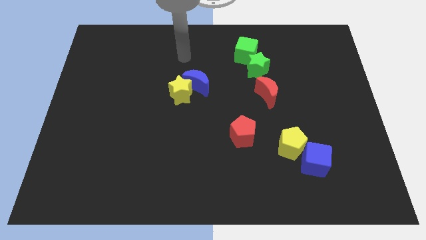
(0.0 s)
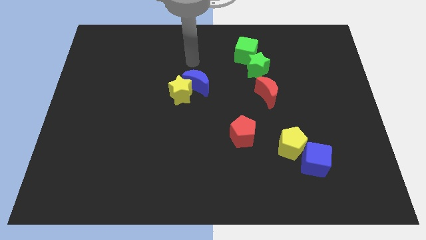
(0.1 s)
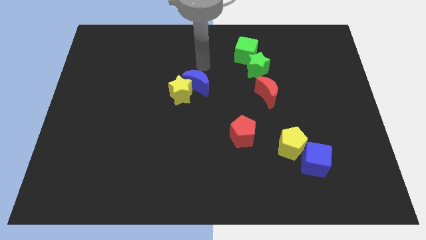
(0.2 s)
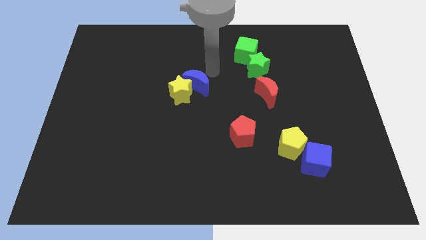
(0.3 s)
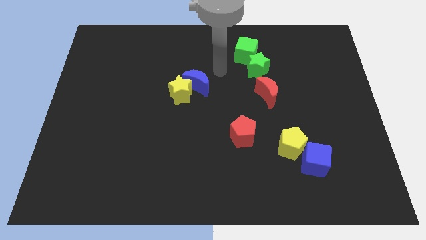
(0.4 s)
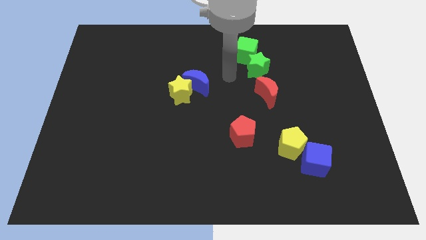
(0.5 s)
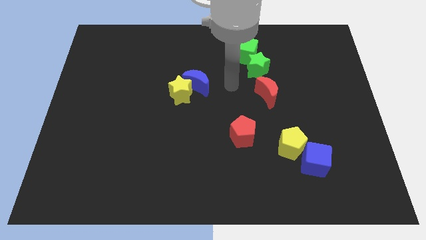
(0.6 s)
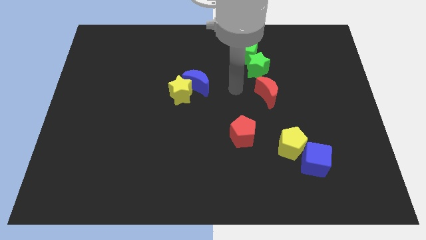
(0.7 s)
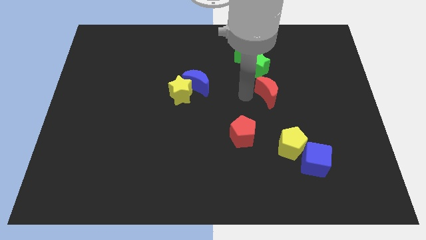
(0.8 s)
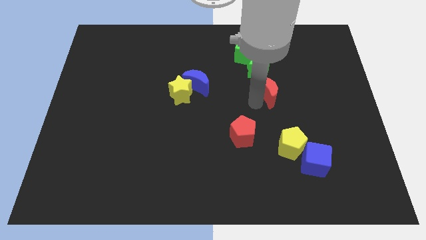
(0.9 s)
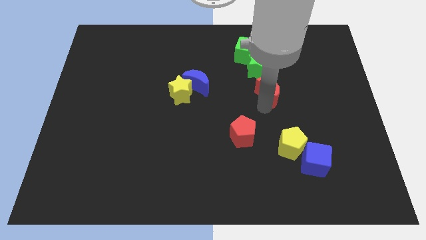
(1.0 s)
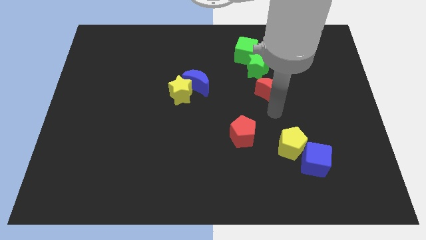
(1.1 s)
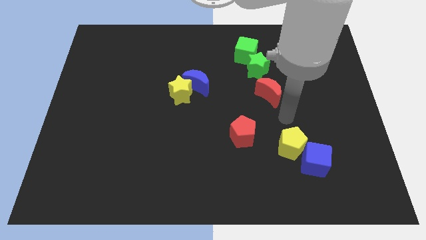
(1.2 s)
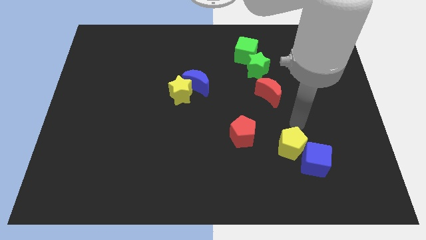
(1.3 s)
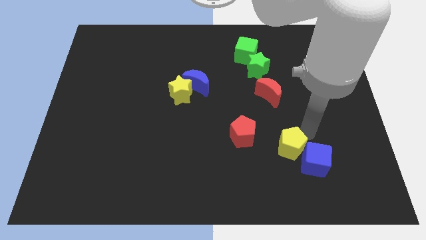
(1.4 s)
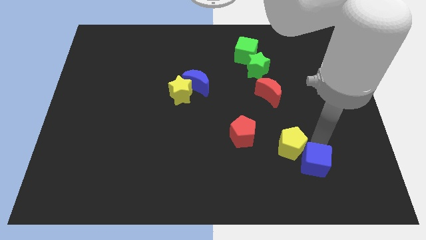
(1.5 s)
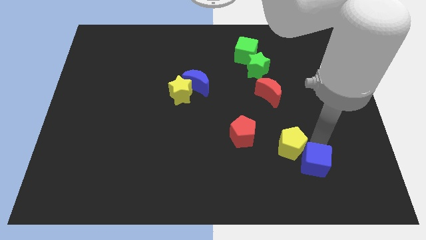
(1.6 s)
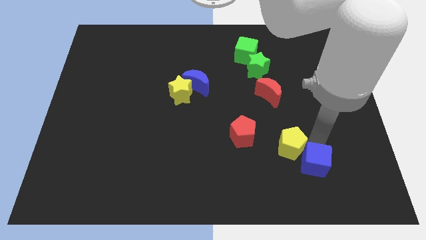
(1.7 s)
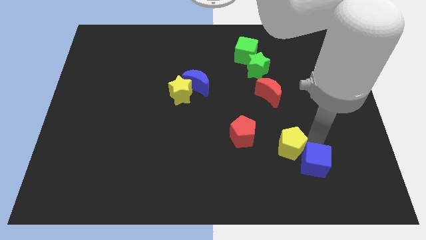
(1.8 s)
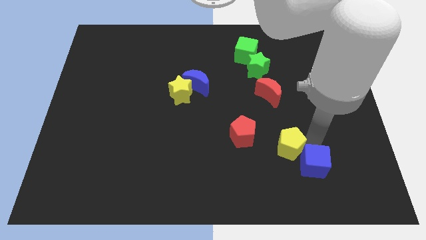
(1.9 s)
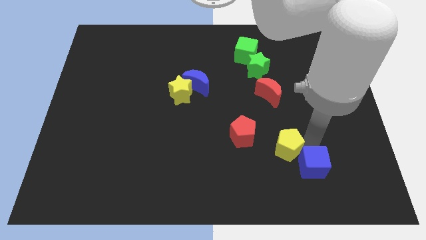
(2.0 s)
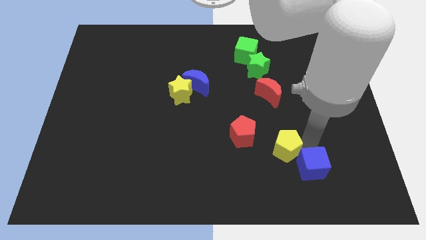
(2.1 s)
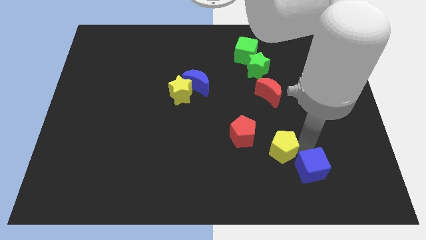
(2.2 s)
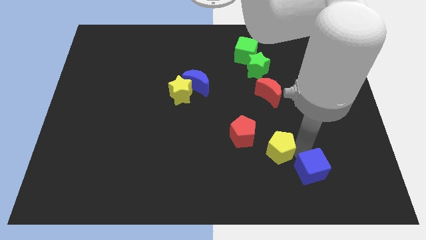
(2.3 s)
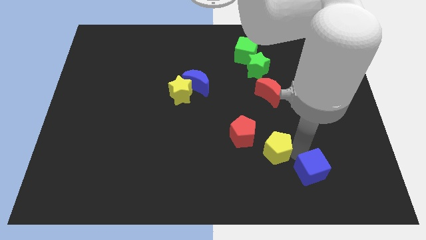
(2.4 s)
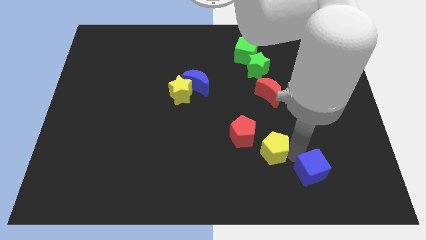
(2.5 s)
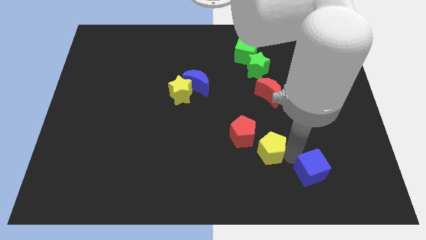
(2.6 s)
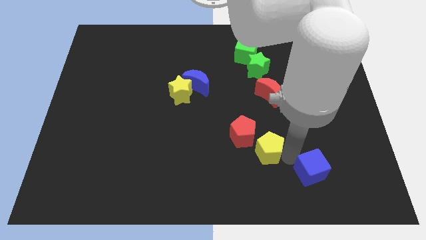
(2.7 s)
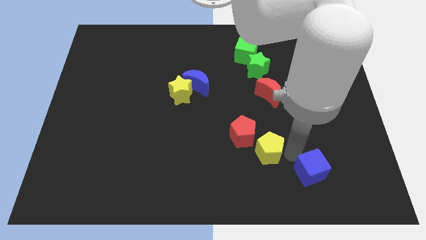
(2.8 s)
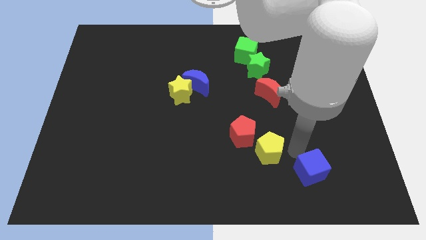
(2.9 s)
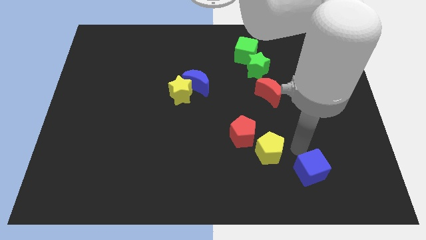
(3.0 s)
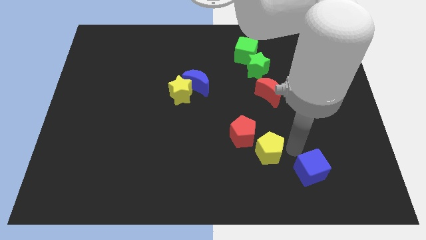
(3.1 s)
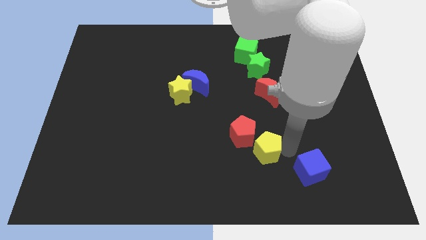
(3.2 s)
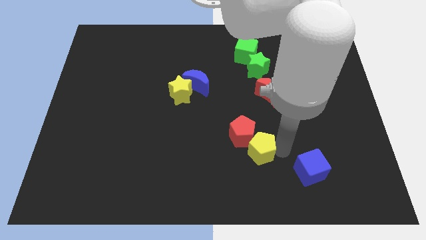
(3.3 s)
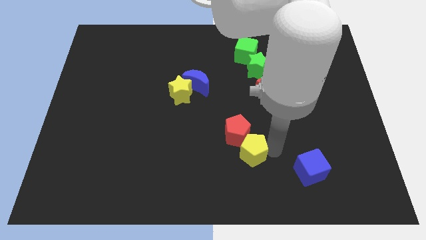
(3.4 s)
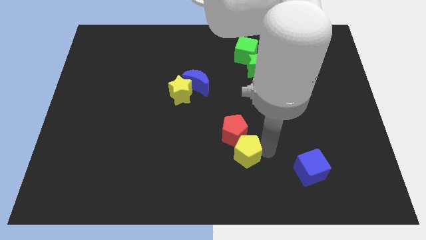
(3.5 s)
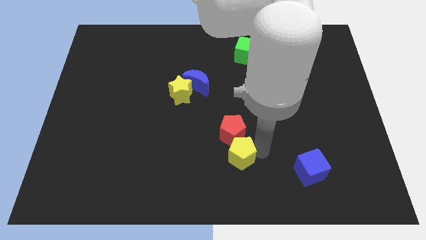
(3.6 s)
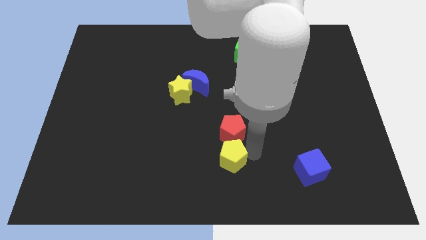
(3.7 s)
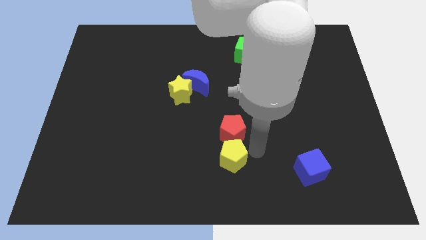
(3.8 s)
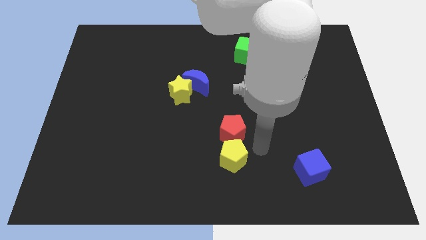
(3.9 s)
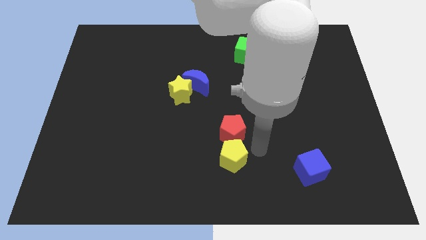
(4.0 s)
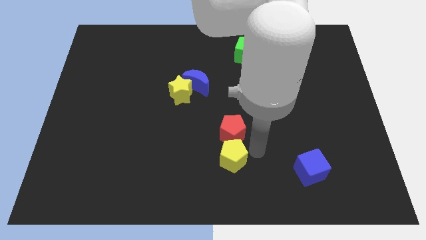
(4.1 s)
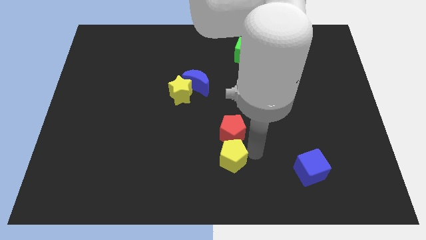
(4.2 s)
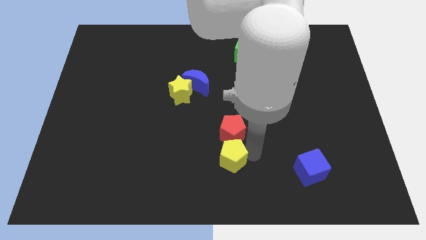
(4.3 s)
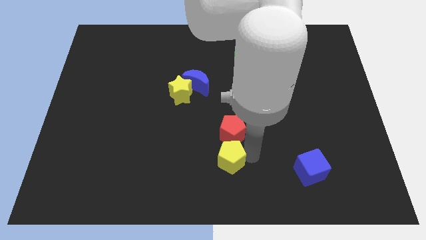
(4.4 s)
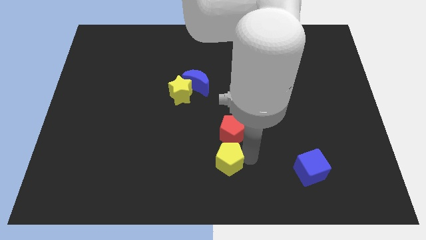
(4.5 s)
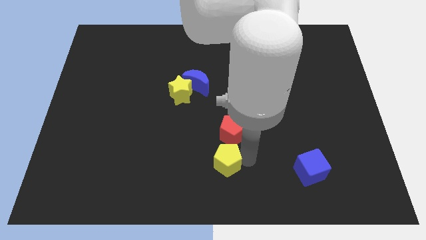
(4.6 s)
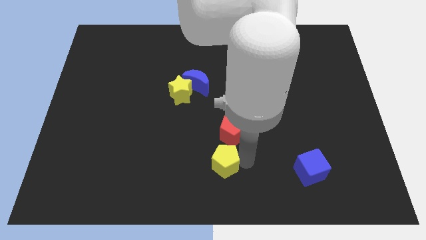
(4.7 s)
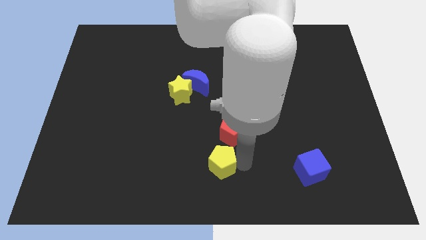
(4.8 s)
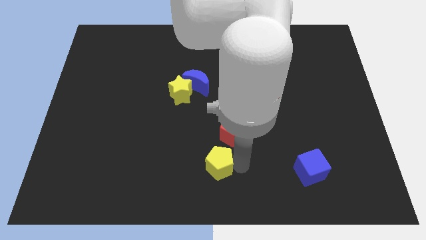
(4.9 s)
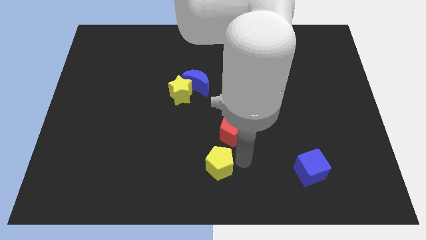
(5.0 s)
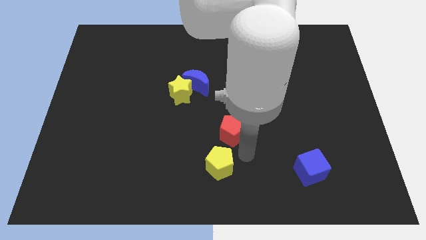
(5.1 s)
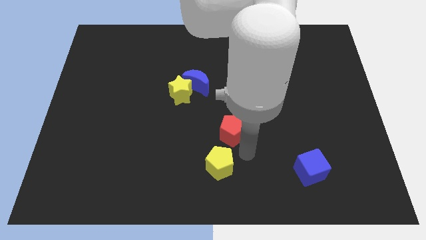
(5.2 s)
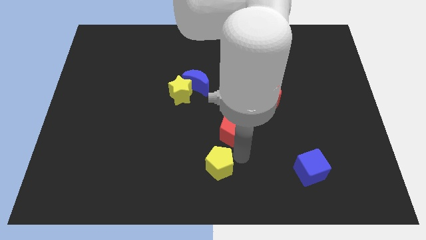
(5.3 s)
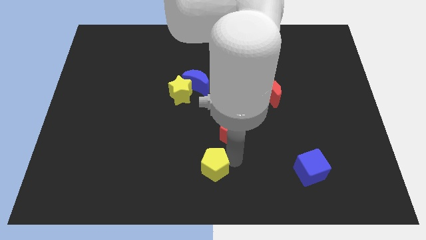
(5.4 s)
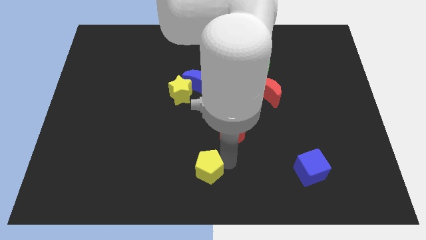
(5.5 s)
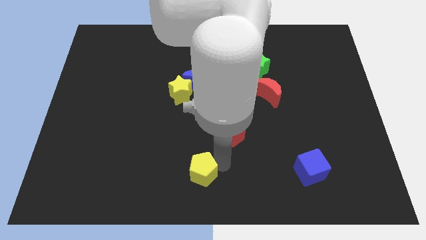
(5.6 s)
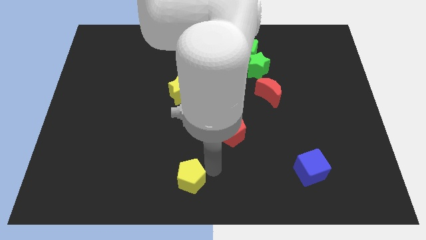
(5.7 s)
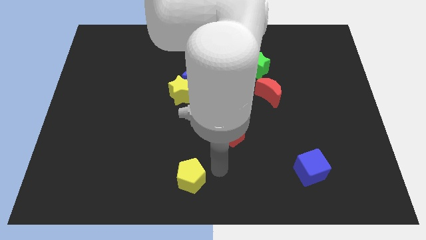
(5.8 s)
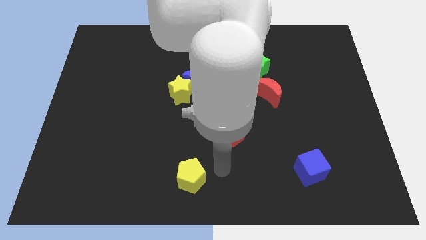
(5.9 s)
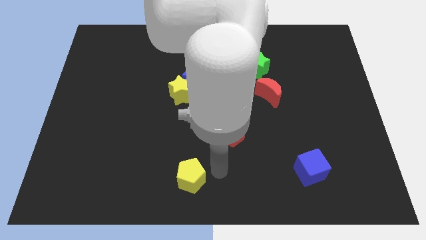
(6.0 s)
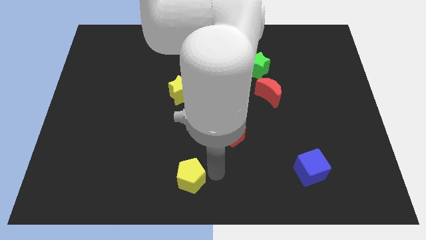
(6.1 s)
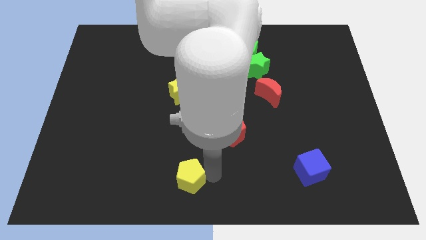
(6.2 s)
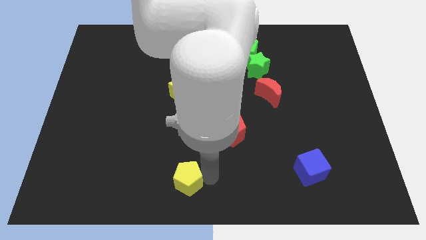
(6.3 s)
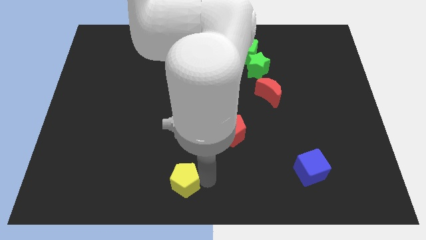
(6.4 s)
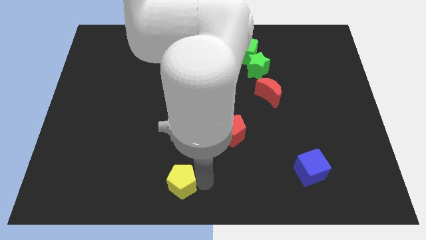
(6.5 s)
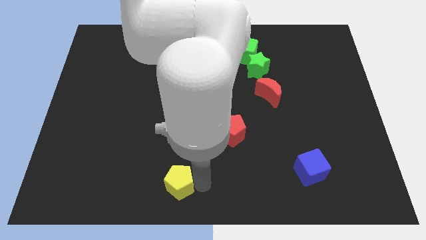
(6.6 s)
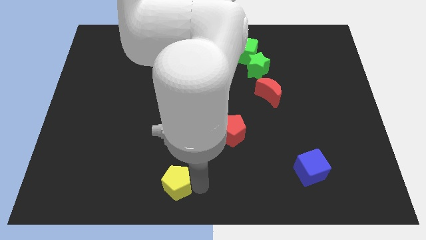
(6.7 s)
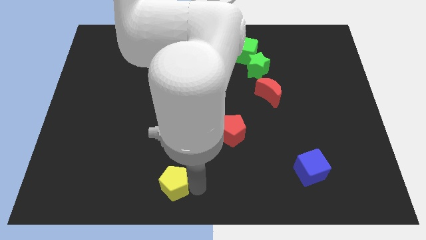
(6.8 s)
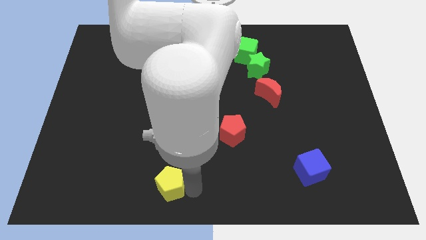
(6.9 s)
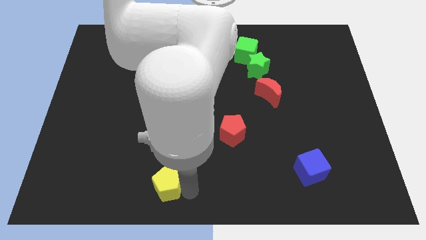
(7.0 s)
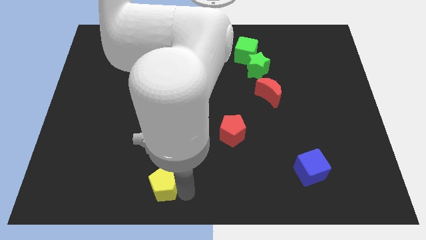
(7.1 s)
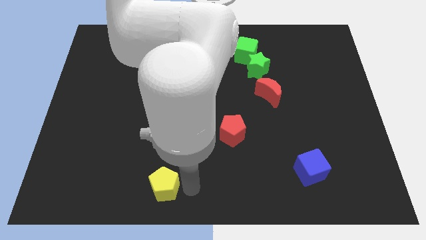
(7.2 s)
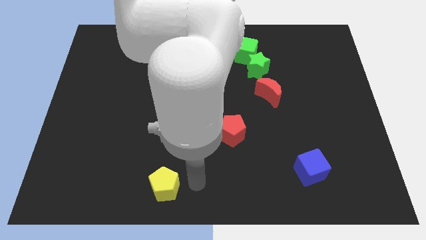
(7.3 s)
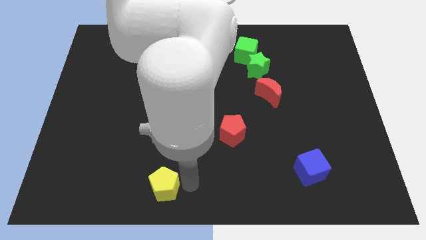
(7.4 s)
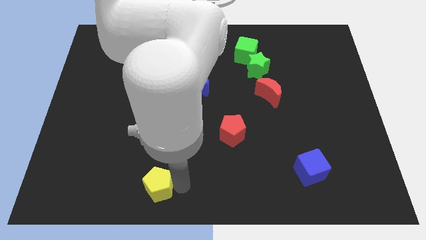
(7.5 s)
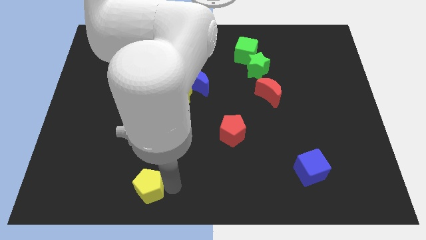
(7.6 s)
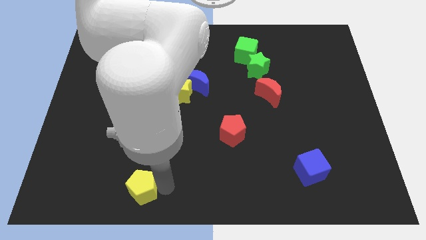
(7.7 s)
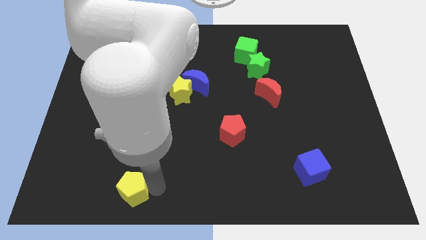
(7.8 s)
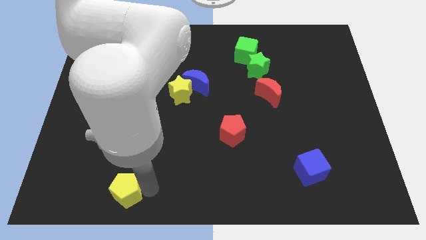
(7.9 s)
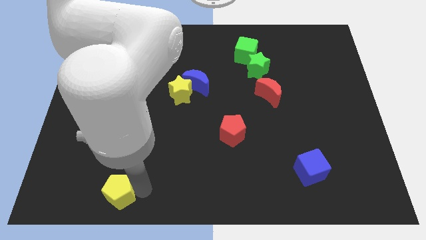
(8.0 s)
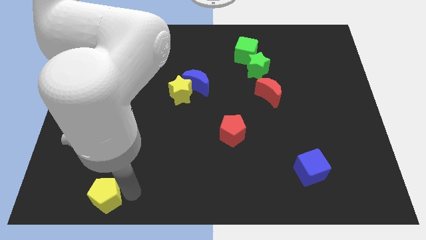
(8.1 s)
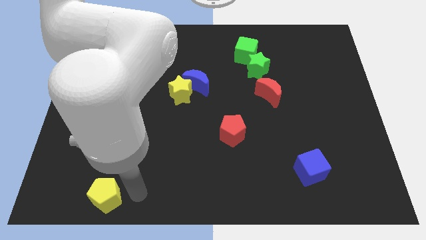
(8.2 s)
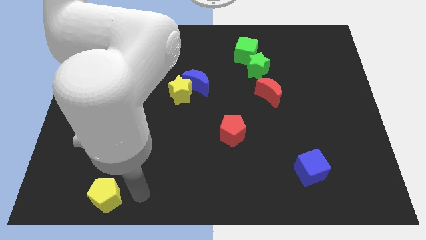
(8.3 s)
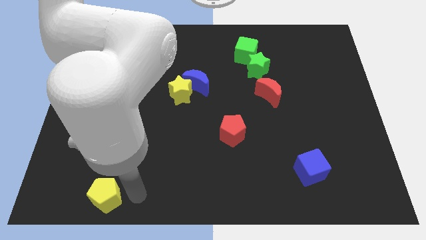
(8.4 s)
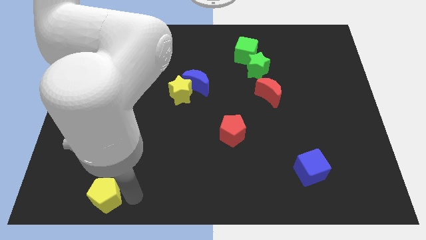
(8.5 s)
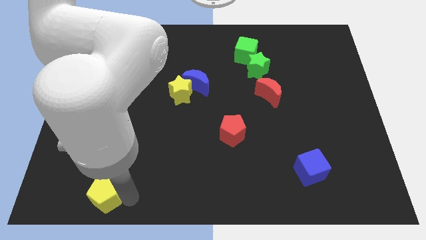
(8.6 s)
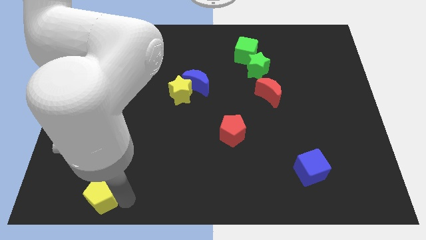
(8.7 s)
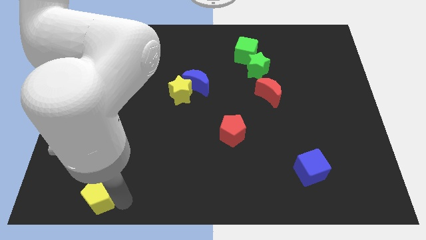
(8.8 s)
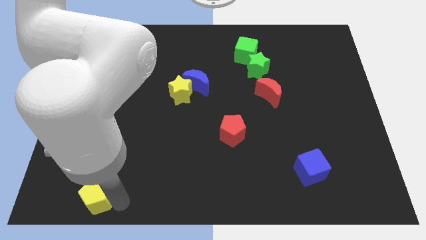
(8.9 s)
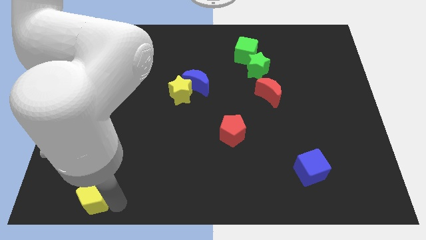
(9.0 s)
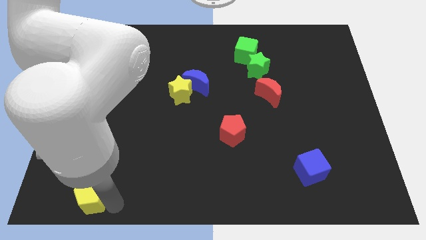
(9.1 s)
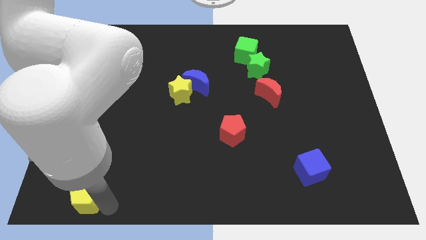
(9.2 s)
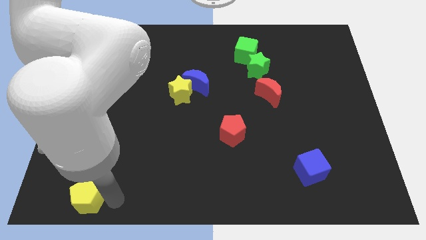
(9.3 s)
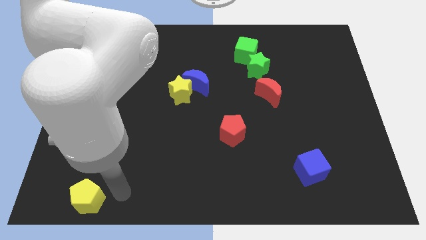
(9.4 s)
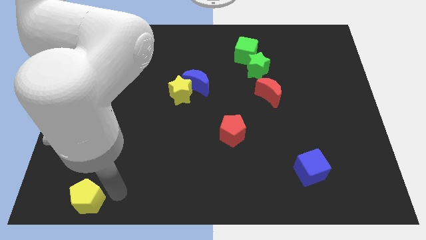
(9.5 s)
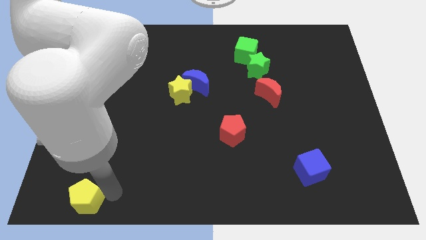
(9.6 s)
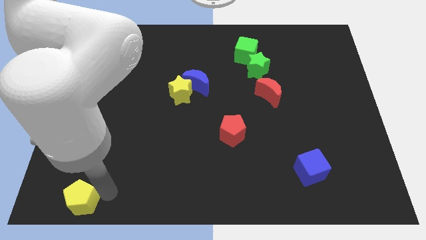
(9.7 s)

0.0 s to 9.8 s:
push the yellow pentagon to the lower left corner
